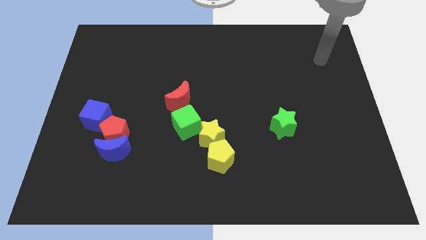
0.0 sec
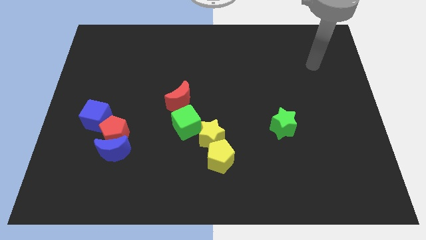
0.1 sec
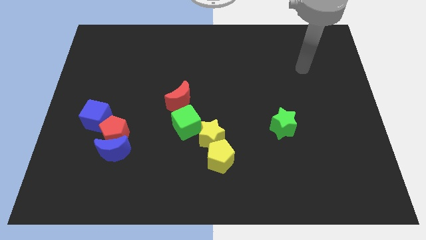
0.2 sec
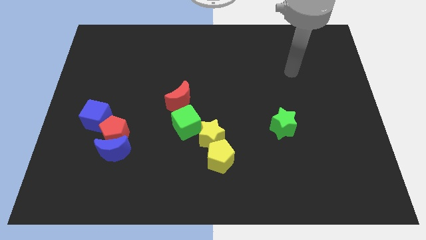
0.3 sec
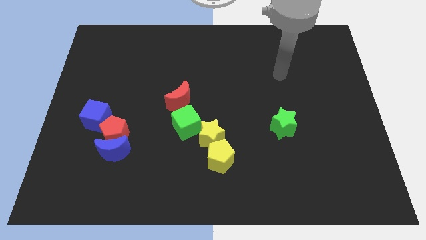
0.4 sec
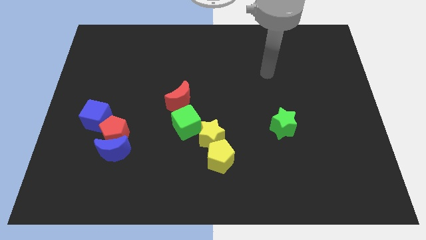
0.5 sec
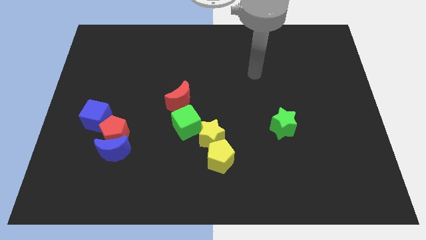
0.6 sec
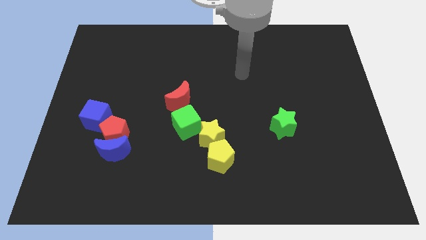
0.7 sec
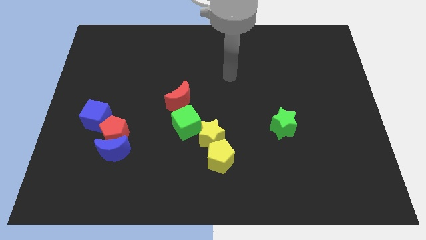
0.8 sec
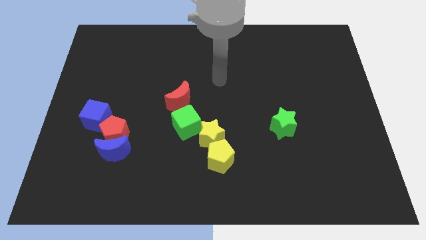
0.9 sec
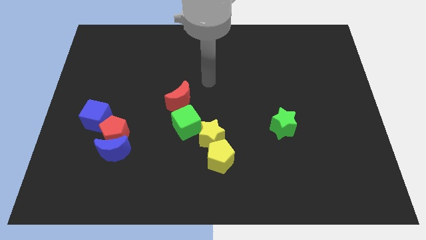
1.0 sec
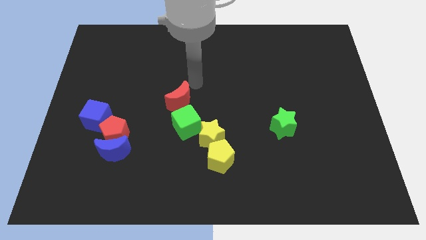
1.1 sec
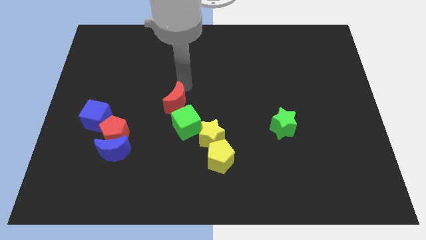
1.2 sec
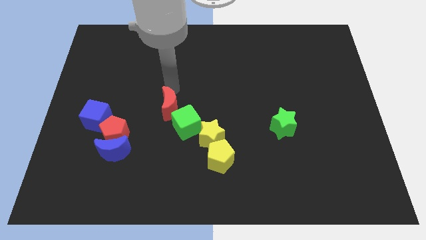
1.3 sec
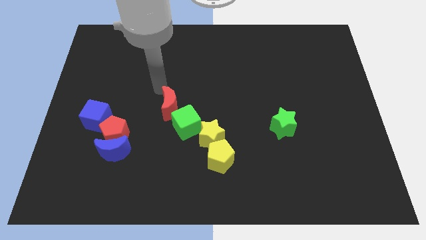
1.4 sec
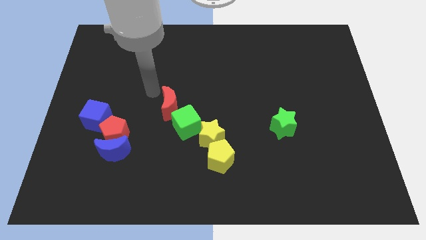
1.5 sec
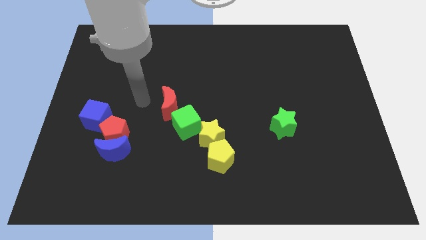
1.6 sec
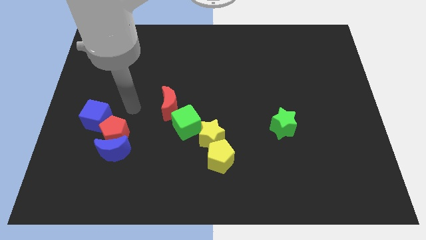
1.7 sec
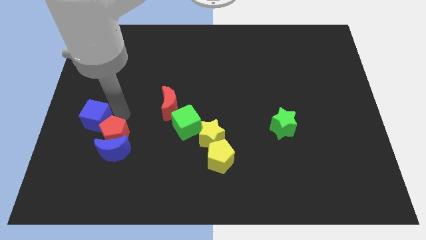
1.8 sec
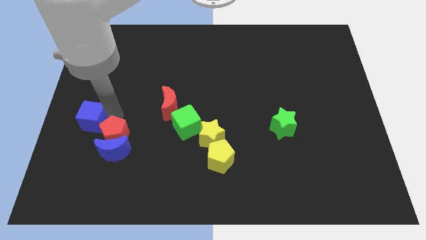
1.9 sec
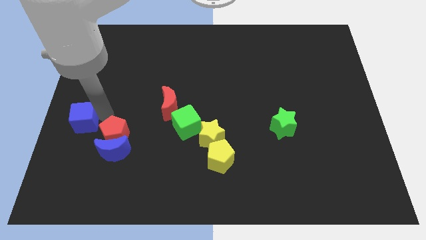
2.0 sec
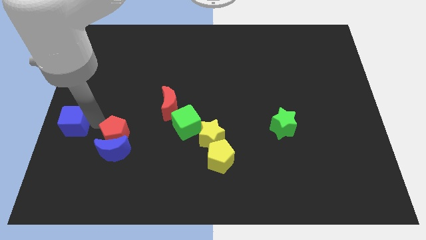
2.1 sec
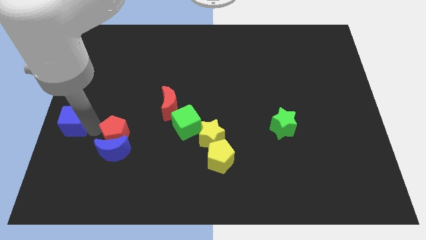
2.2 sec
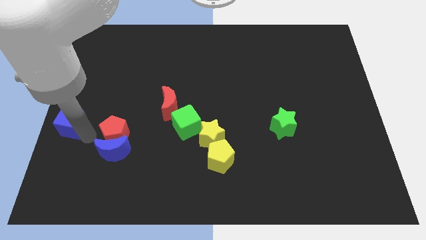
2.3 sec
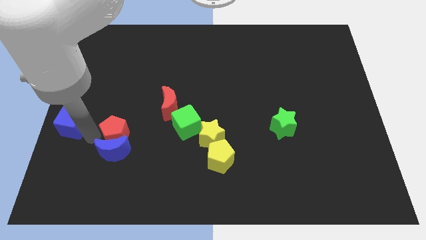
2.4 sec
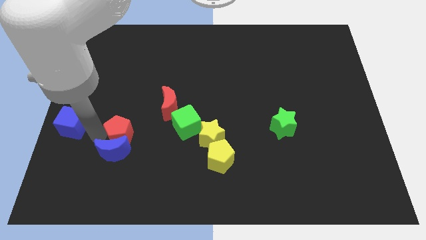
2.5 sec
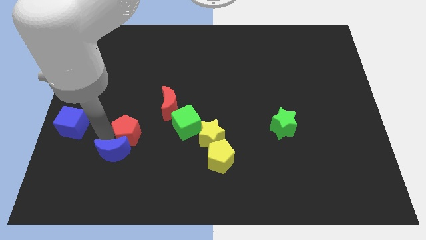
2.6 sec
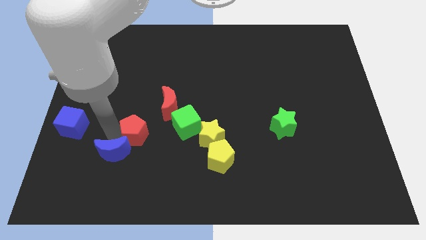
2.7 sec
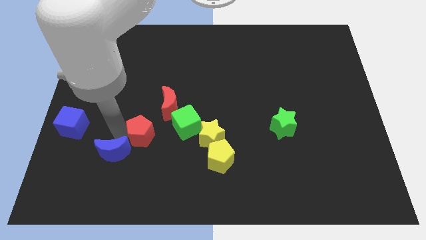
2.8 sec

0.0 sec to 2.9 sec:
move the red pentagon away from the blue moon and blue cube

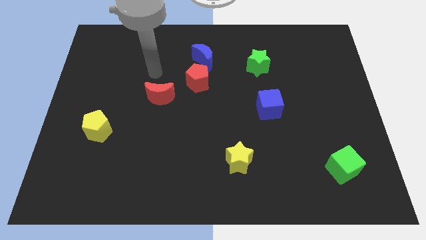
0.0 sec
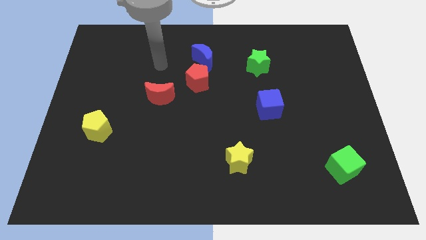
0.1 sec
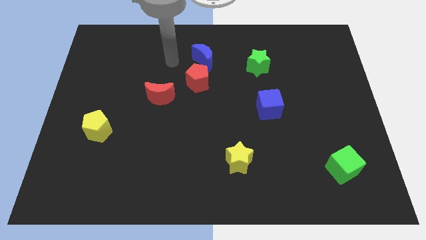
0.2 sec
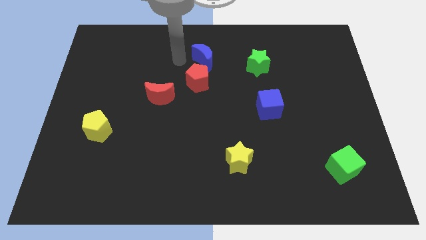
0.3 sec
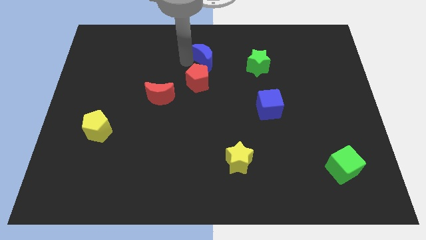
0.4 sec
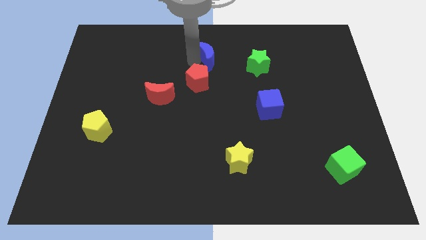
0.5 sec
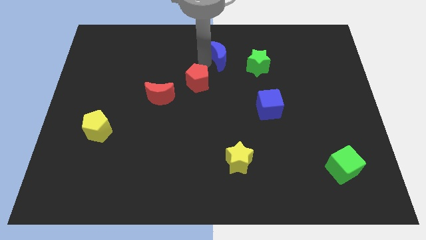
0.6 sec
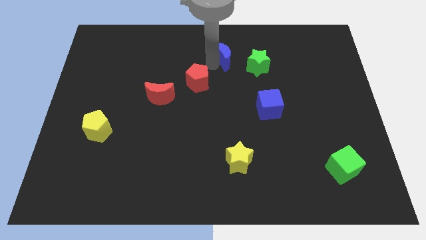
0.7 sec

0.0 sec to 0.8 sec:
move the red pentagon away from the blue moon

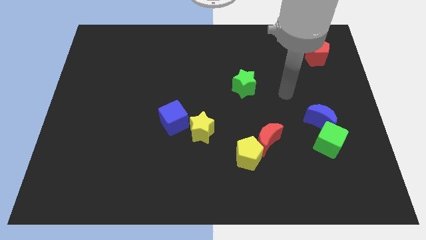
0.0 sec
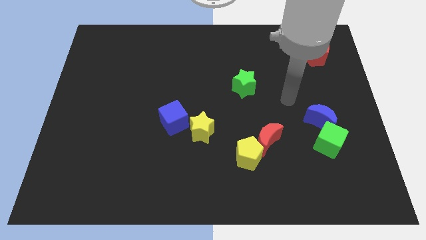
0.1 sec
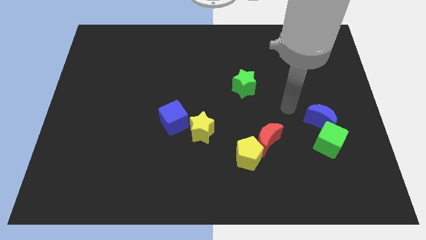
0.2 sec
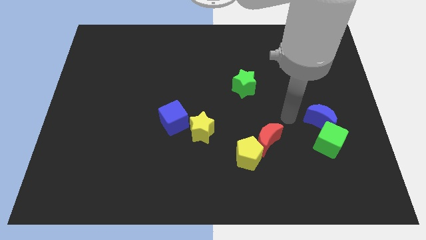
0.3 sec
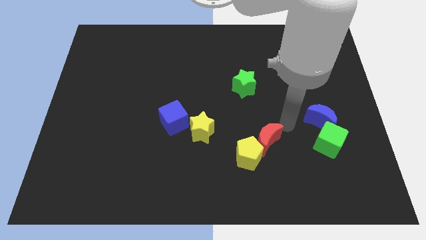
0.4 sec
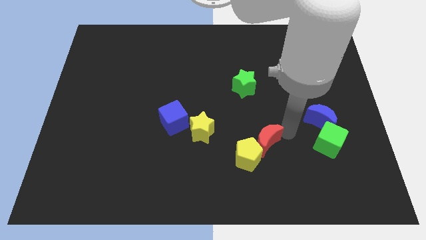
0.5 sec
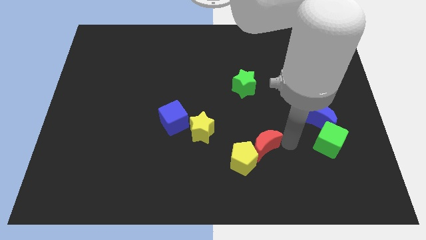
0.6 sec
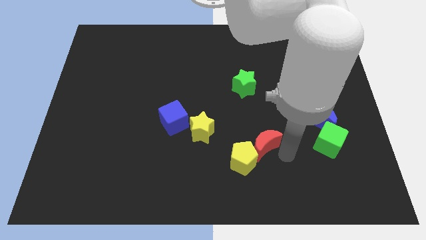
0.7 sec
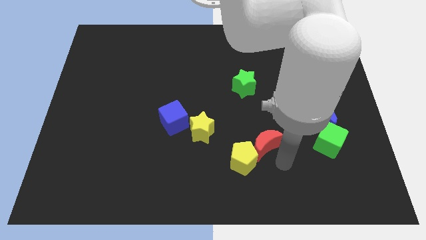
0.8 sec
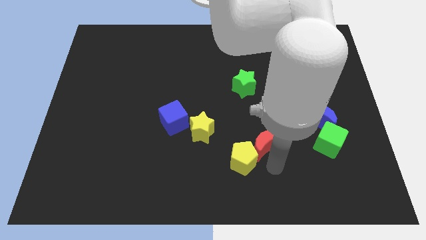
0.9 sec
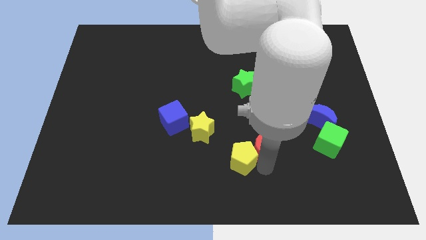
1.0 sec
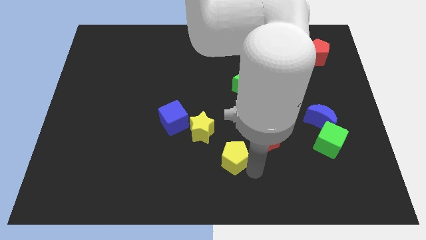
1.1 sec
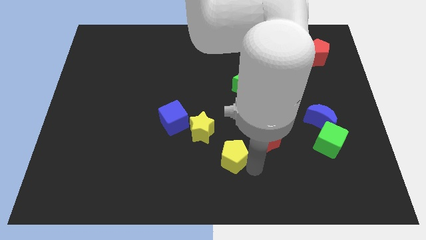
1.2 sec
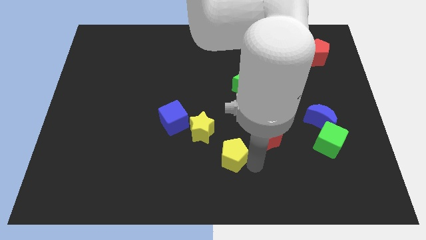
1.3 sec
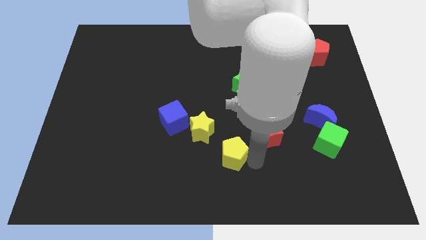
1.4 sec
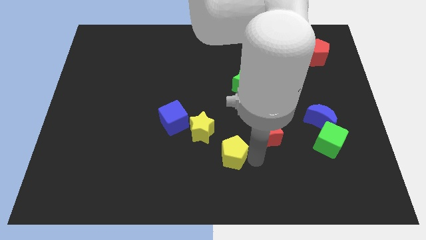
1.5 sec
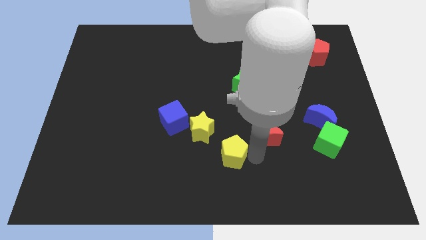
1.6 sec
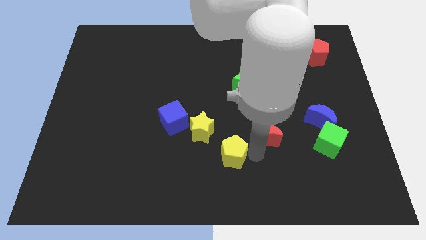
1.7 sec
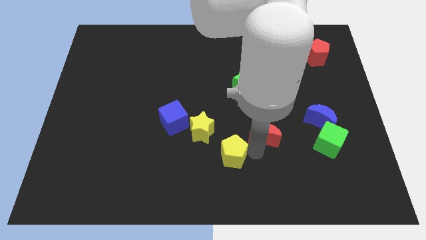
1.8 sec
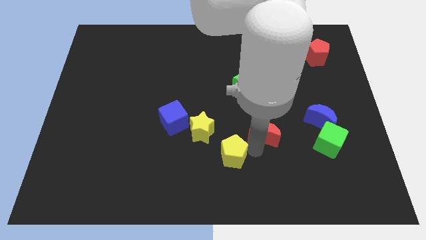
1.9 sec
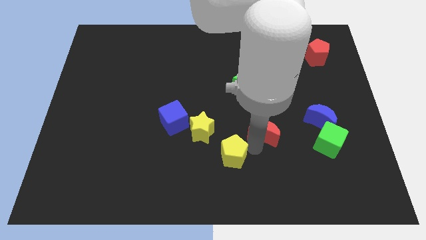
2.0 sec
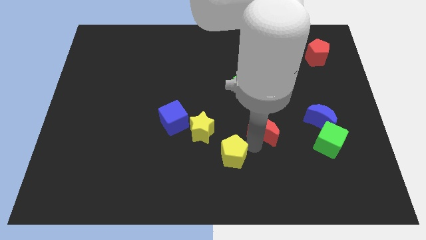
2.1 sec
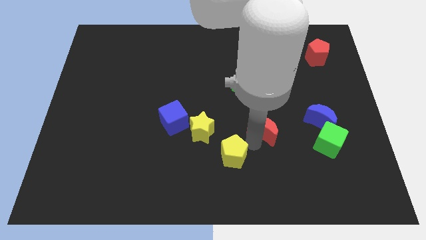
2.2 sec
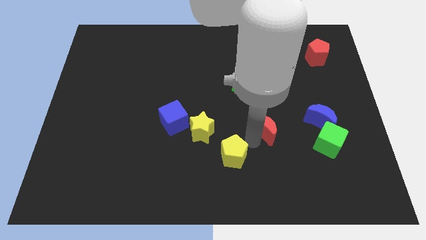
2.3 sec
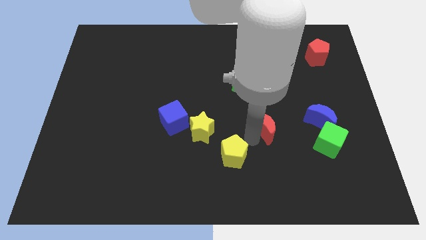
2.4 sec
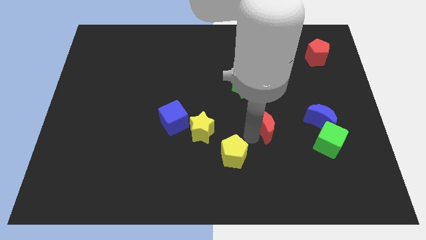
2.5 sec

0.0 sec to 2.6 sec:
separate the red moon from the yellow pentagon

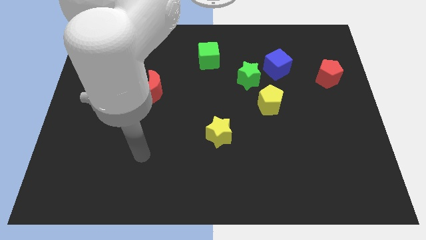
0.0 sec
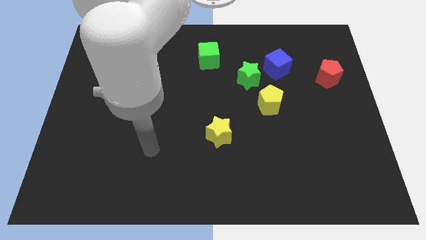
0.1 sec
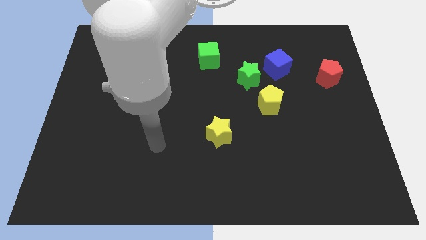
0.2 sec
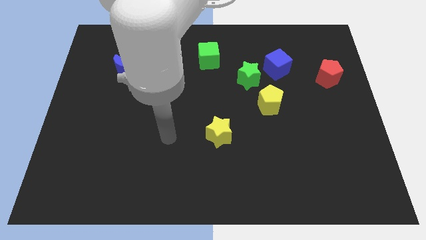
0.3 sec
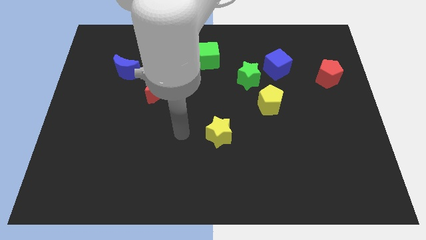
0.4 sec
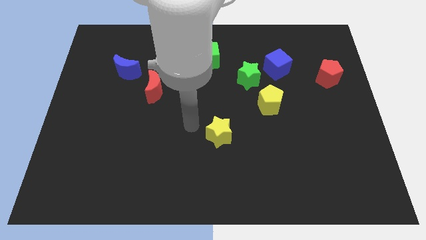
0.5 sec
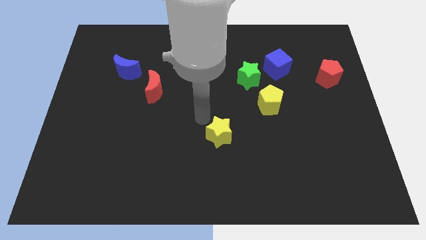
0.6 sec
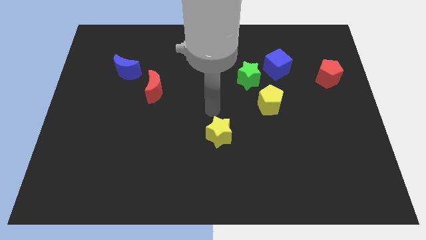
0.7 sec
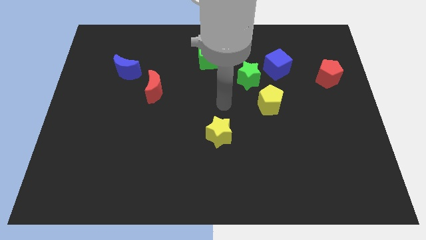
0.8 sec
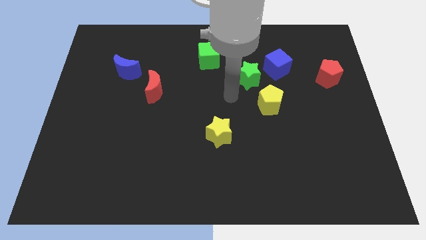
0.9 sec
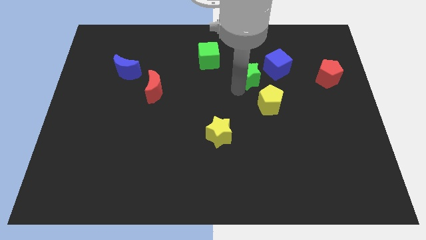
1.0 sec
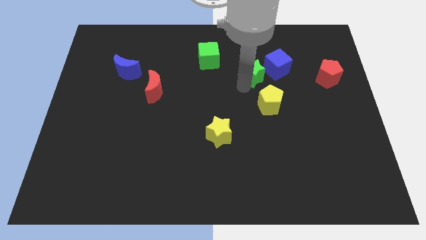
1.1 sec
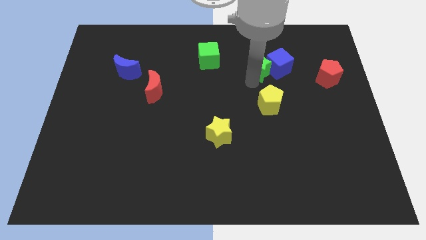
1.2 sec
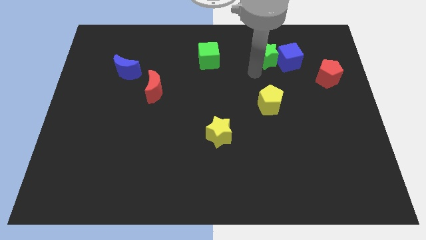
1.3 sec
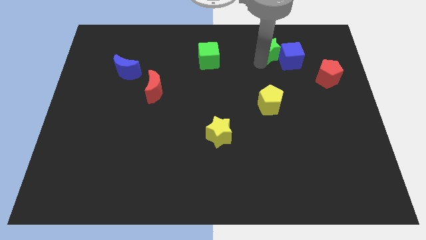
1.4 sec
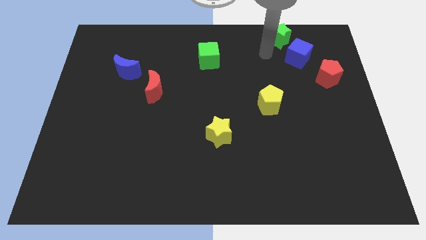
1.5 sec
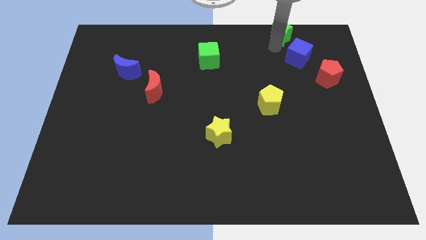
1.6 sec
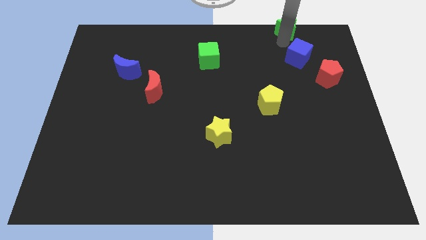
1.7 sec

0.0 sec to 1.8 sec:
pull the blue cube apart from the green star

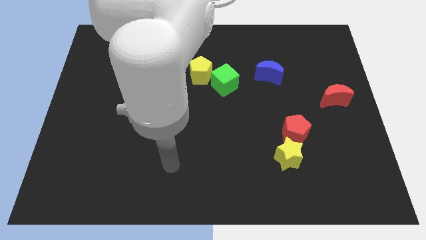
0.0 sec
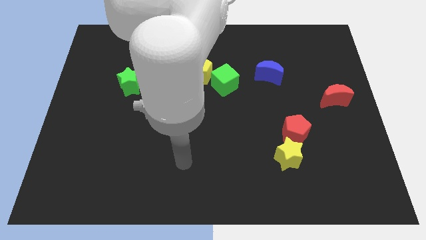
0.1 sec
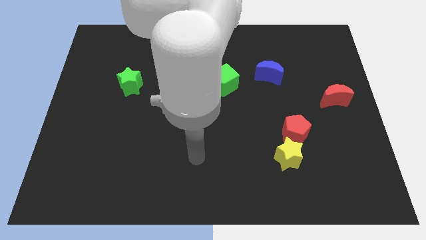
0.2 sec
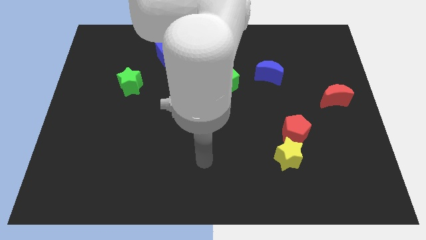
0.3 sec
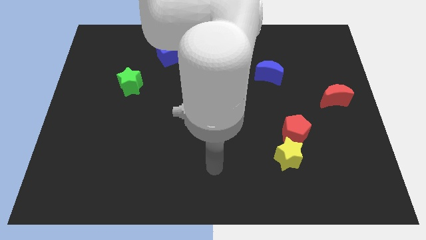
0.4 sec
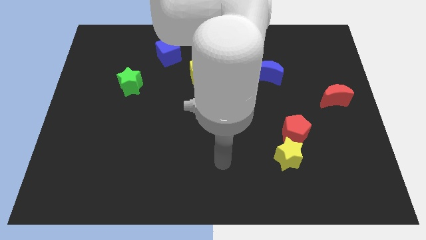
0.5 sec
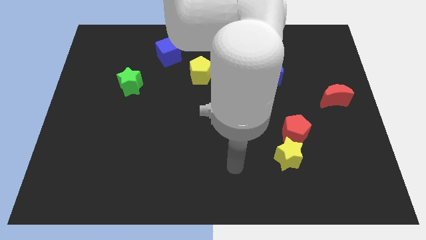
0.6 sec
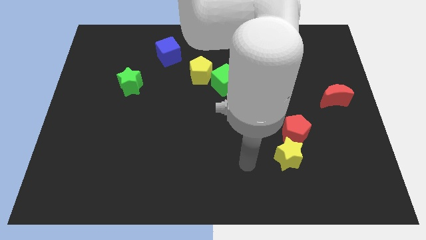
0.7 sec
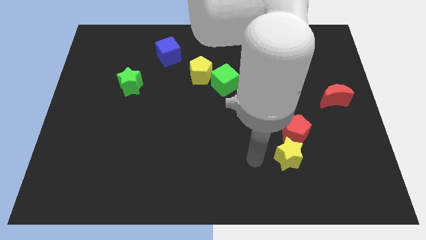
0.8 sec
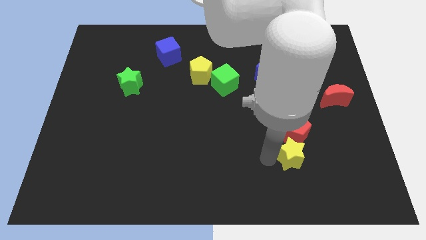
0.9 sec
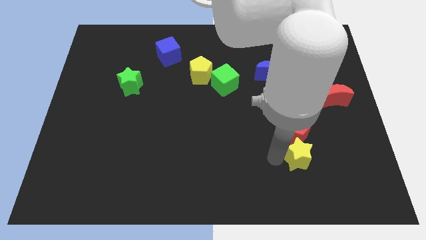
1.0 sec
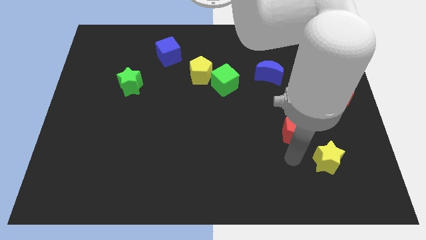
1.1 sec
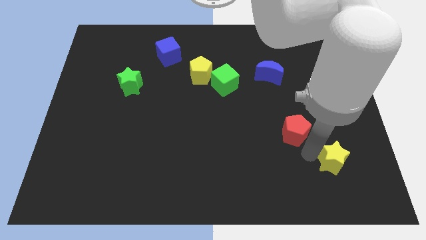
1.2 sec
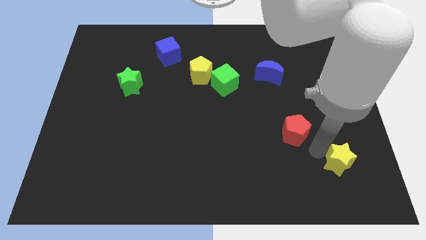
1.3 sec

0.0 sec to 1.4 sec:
separate the red pentagon from the yellow star
